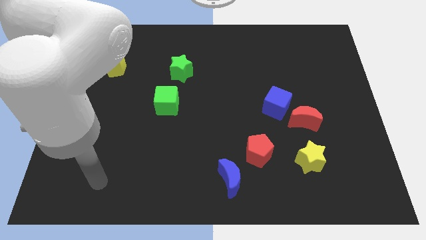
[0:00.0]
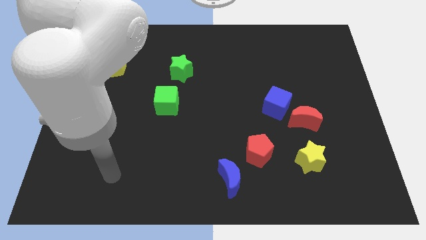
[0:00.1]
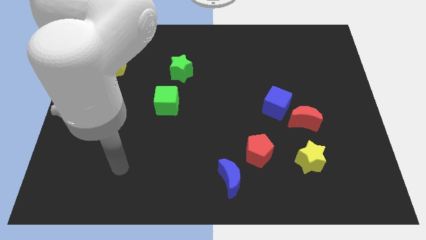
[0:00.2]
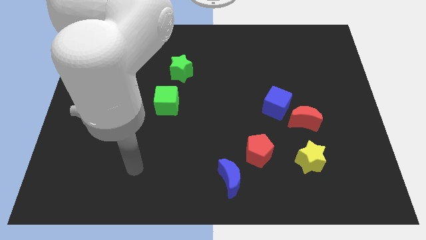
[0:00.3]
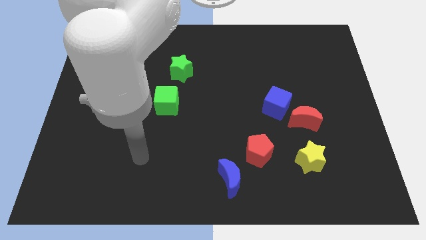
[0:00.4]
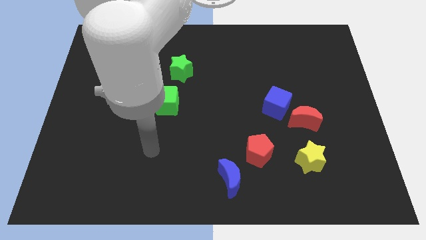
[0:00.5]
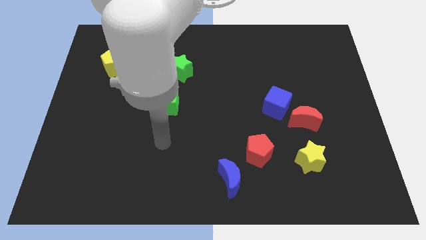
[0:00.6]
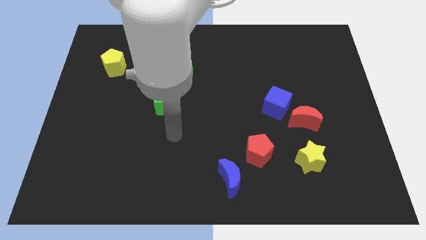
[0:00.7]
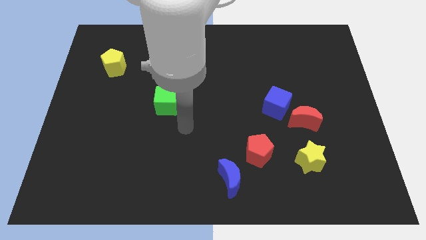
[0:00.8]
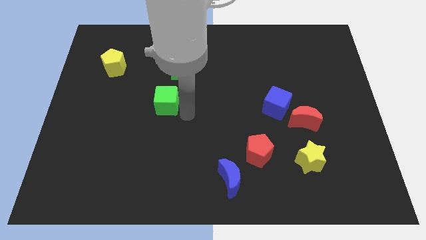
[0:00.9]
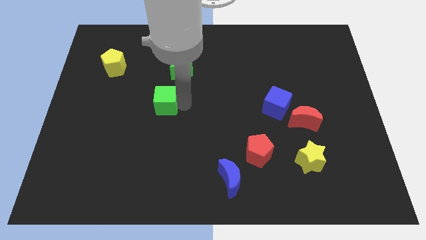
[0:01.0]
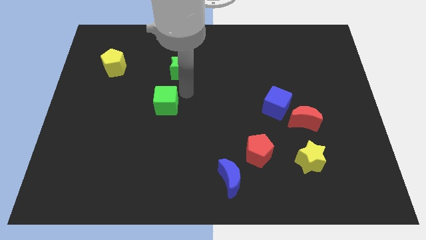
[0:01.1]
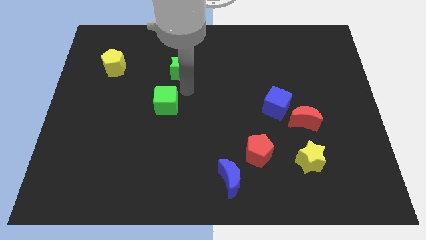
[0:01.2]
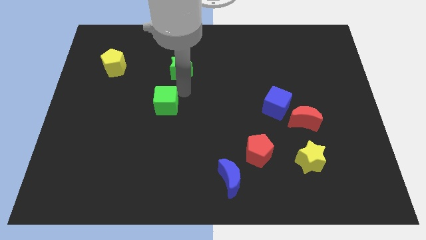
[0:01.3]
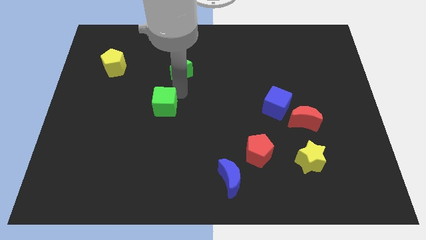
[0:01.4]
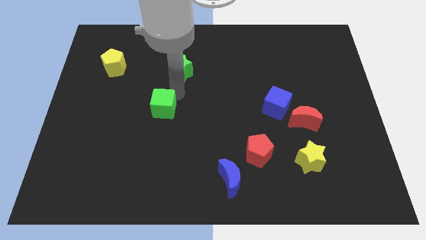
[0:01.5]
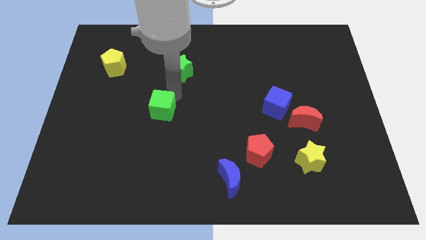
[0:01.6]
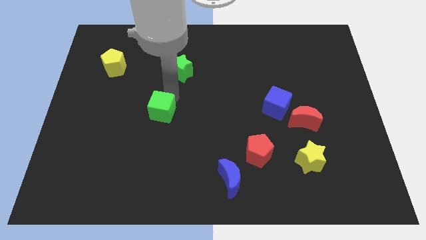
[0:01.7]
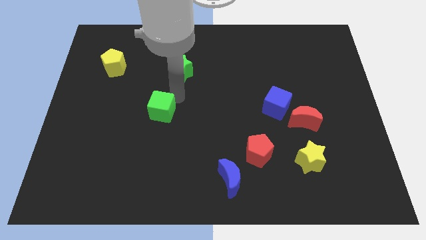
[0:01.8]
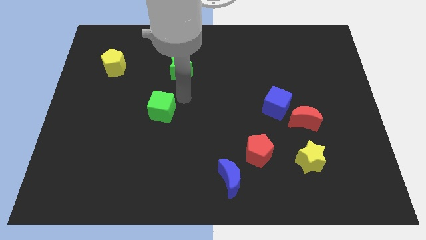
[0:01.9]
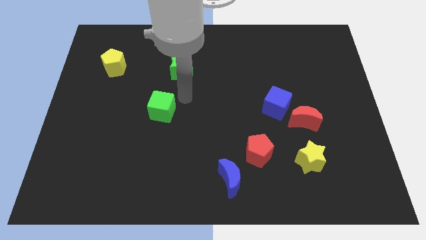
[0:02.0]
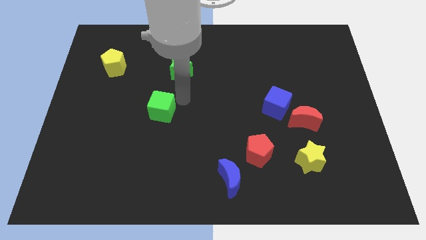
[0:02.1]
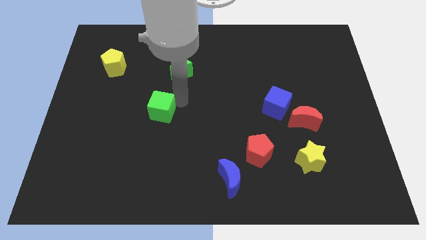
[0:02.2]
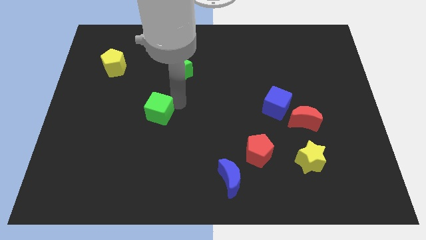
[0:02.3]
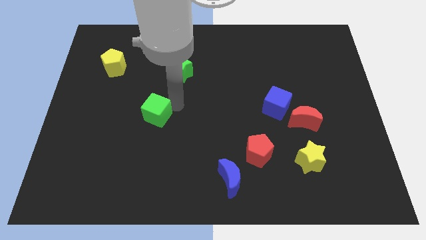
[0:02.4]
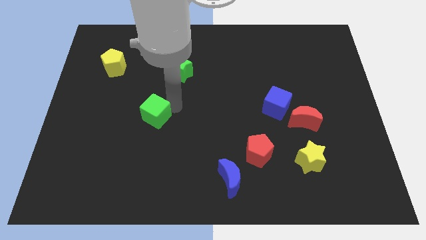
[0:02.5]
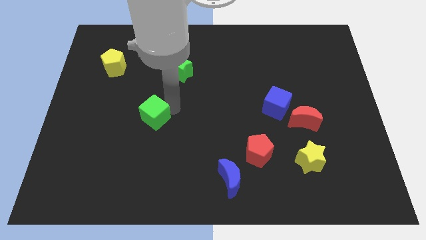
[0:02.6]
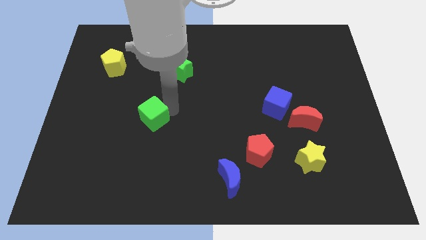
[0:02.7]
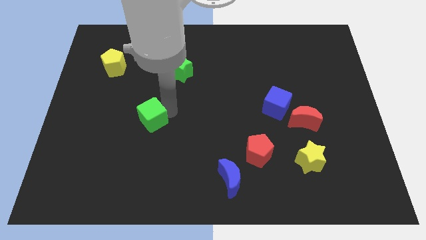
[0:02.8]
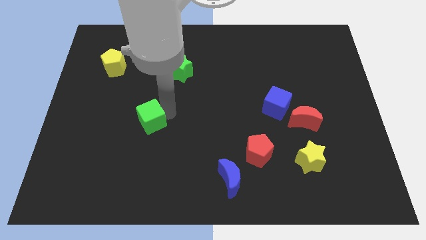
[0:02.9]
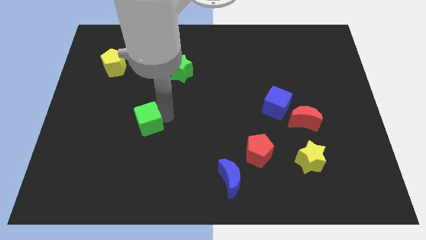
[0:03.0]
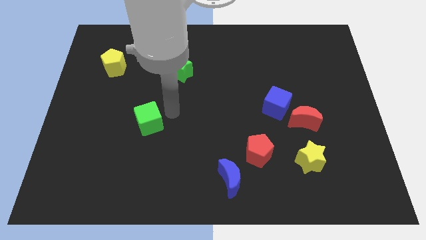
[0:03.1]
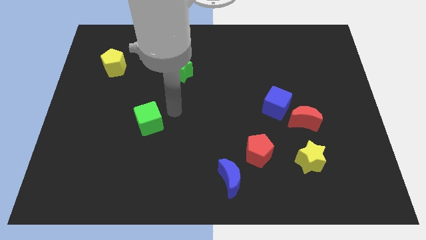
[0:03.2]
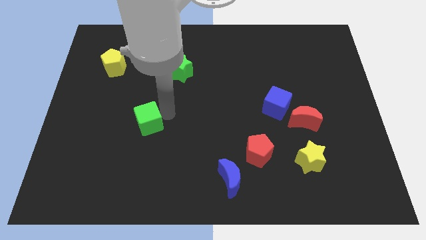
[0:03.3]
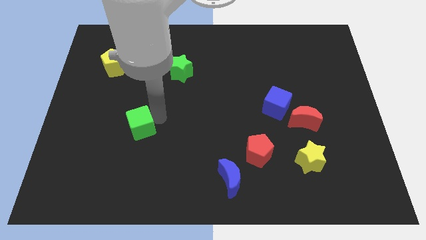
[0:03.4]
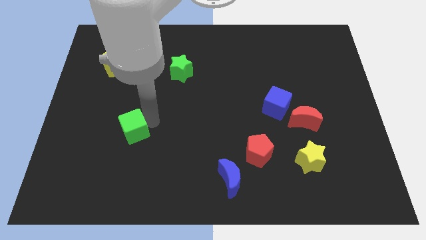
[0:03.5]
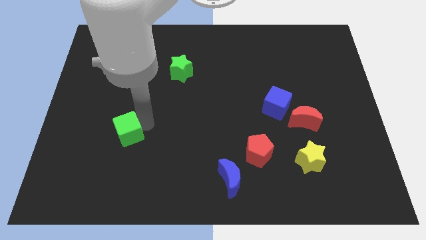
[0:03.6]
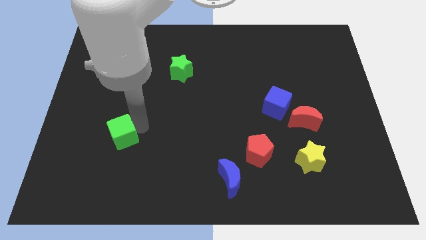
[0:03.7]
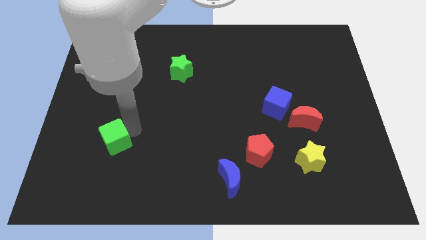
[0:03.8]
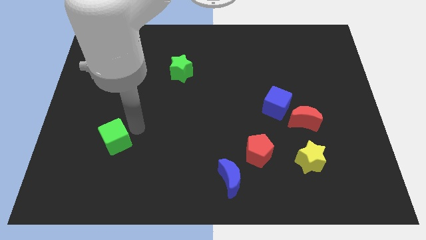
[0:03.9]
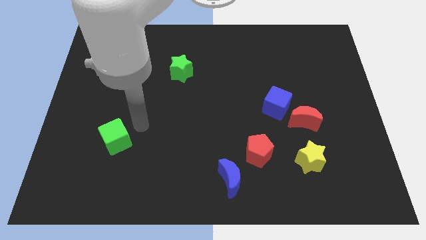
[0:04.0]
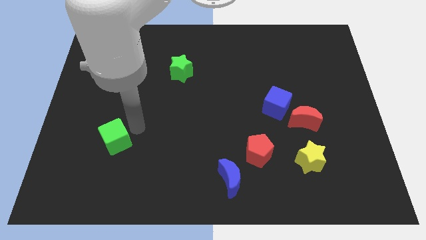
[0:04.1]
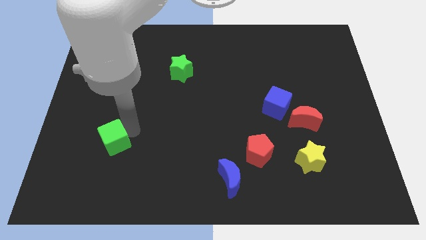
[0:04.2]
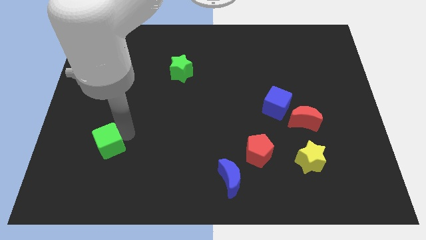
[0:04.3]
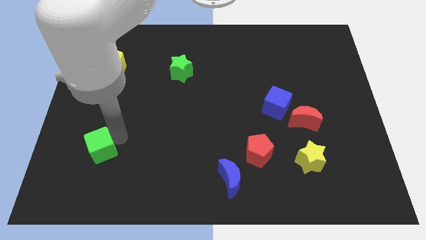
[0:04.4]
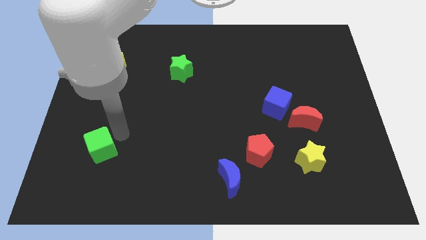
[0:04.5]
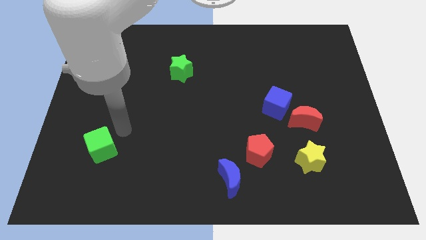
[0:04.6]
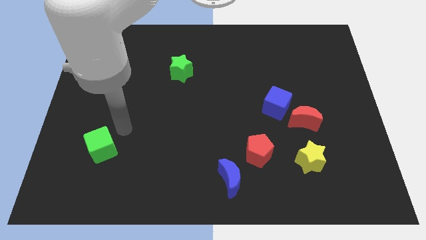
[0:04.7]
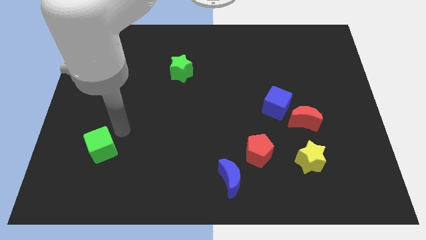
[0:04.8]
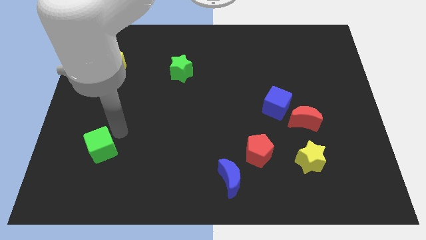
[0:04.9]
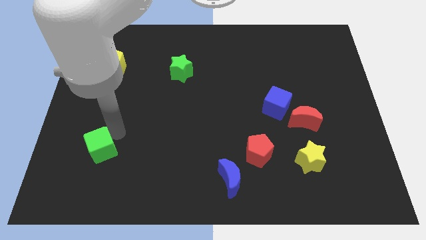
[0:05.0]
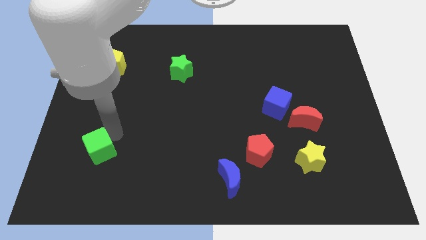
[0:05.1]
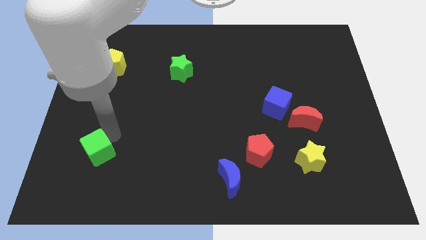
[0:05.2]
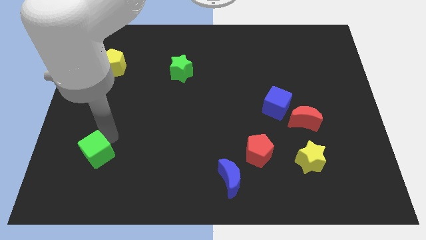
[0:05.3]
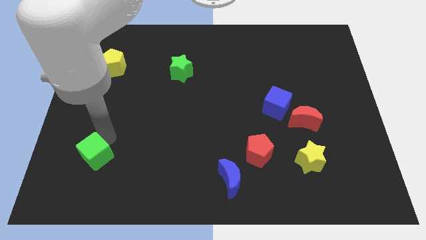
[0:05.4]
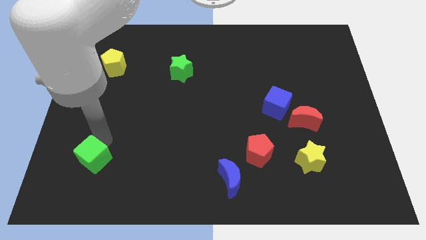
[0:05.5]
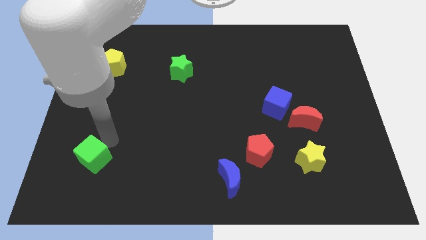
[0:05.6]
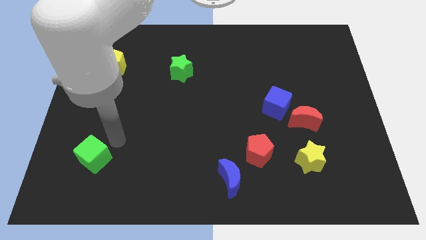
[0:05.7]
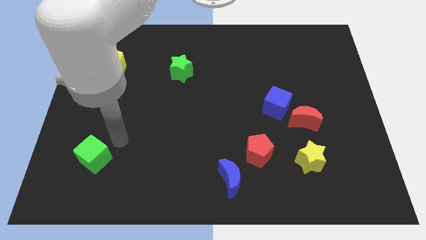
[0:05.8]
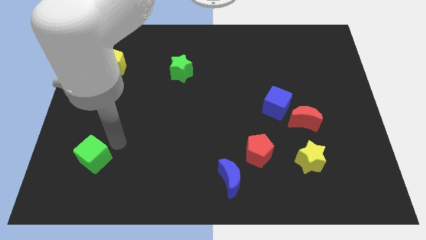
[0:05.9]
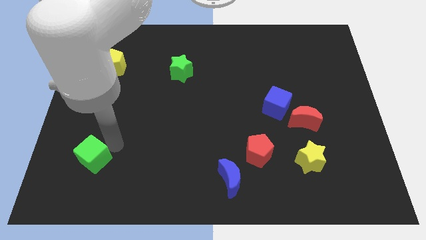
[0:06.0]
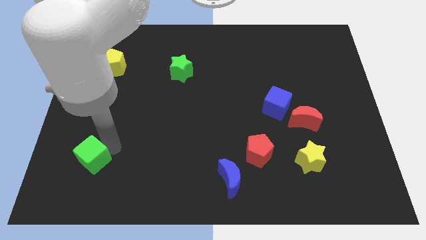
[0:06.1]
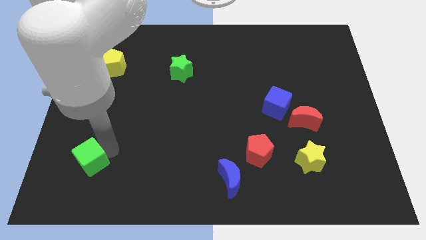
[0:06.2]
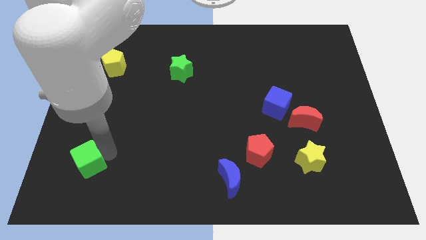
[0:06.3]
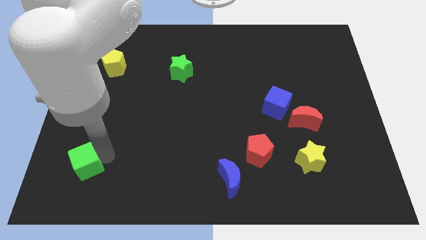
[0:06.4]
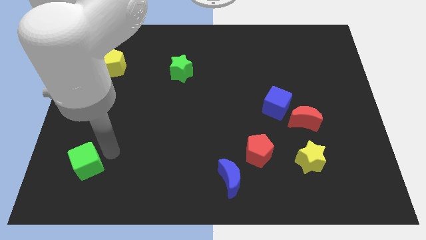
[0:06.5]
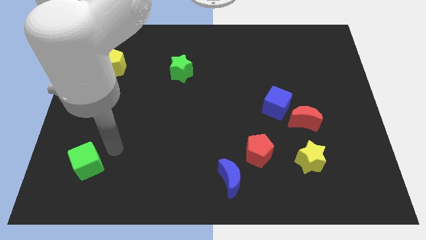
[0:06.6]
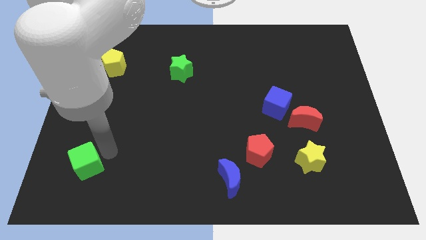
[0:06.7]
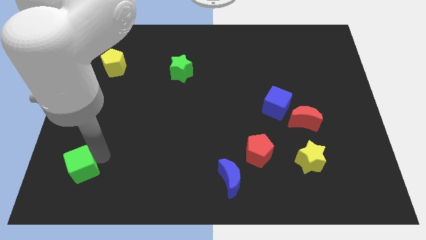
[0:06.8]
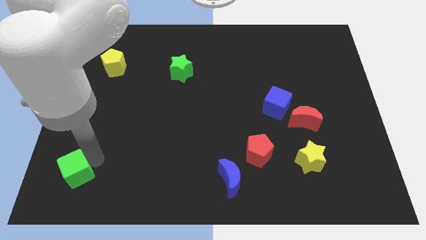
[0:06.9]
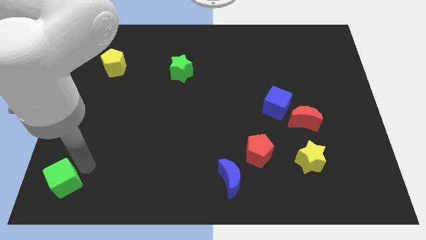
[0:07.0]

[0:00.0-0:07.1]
push the green cube to the bottom left of the board
